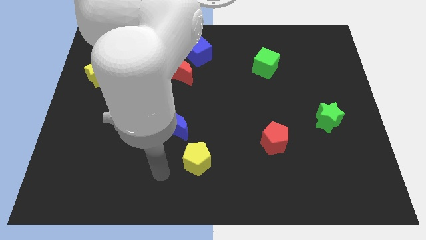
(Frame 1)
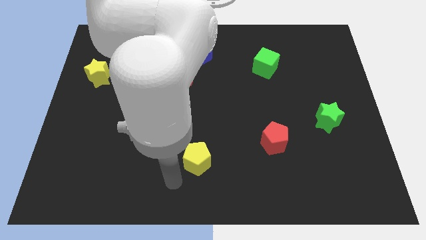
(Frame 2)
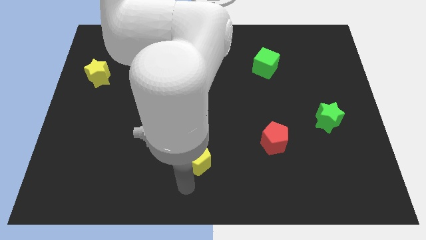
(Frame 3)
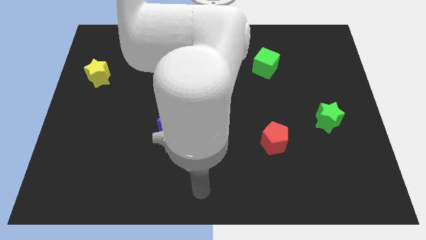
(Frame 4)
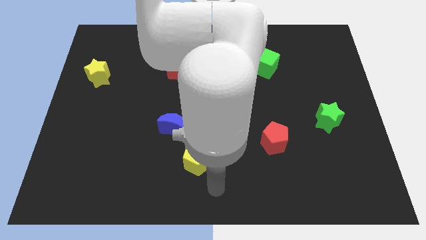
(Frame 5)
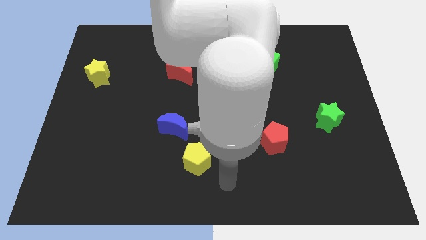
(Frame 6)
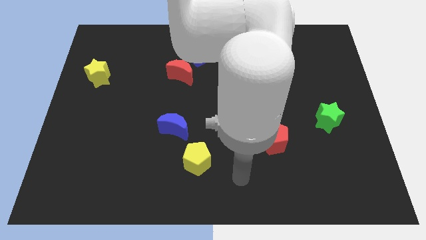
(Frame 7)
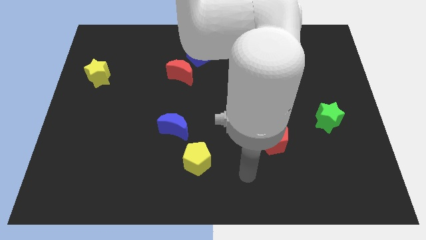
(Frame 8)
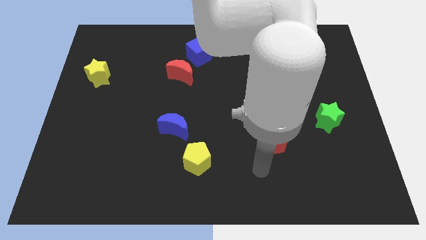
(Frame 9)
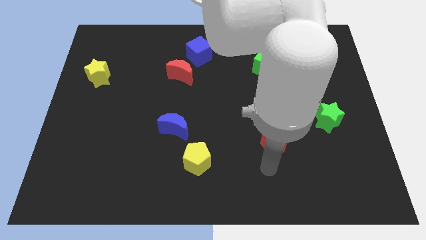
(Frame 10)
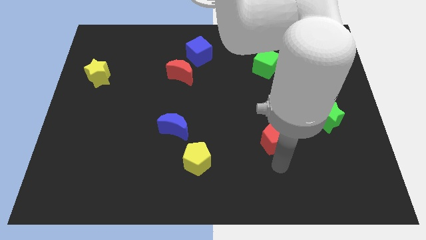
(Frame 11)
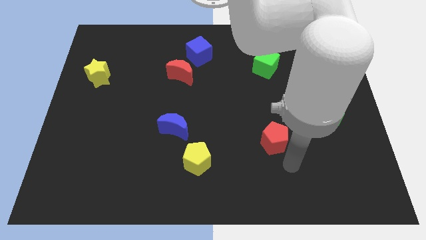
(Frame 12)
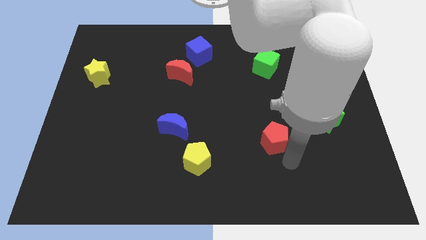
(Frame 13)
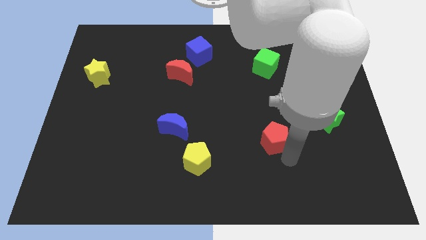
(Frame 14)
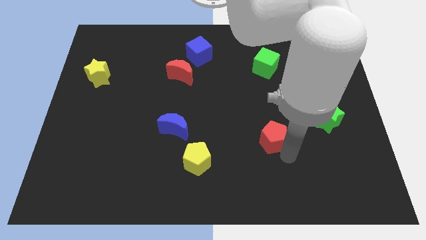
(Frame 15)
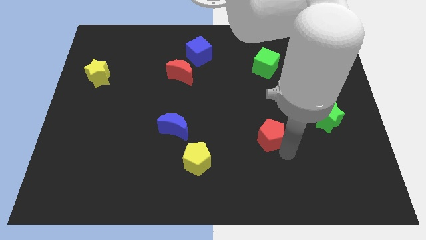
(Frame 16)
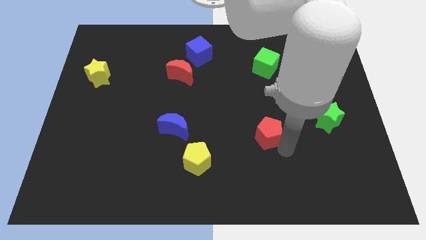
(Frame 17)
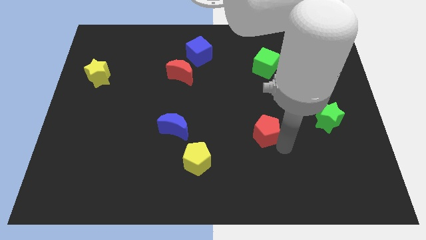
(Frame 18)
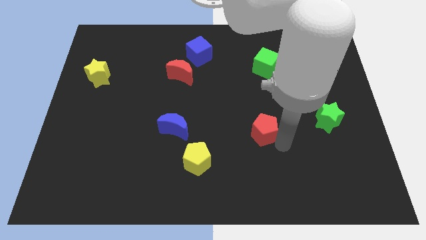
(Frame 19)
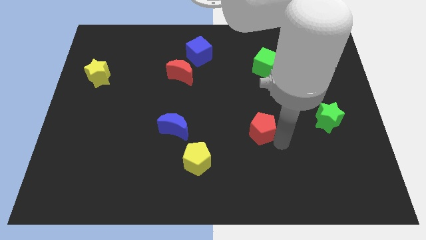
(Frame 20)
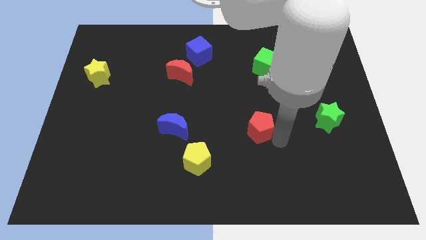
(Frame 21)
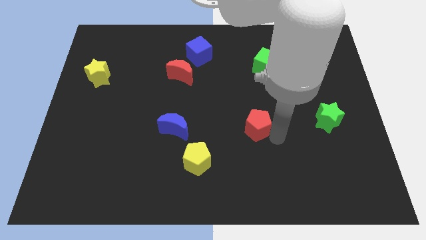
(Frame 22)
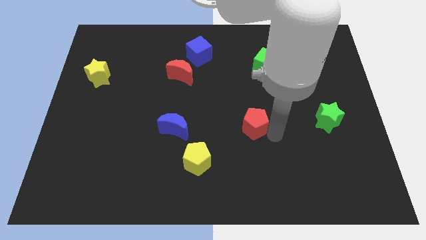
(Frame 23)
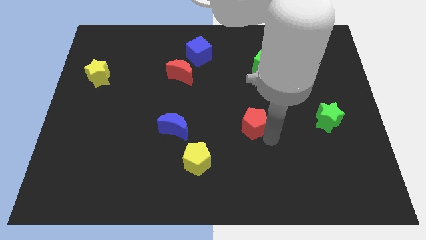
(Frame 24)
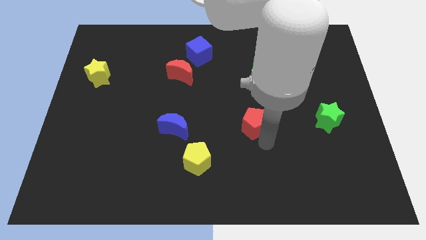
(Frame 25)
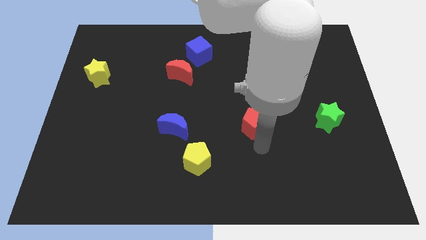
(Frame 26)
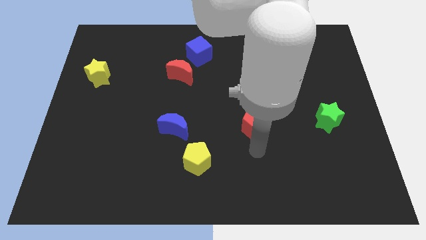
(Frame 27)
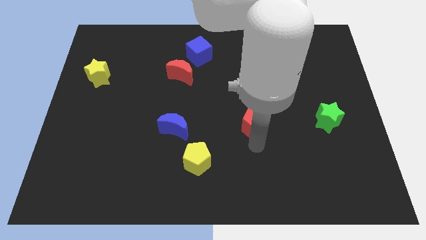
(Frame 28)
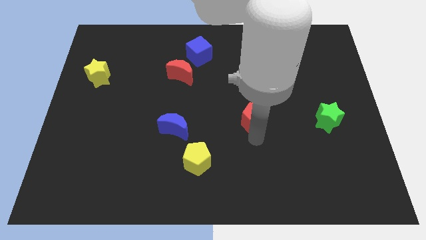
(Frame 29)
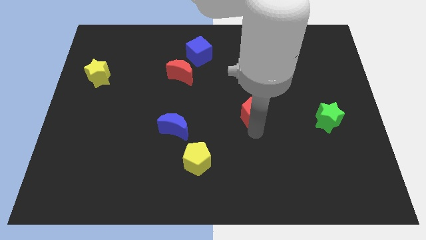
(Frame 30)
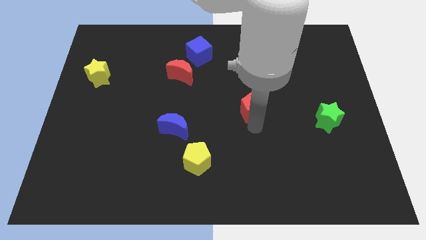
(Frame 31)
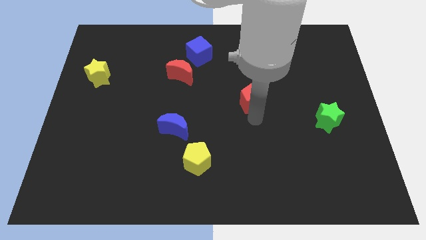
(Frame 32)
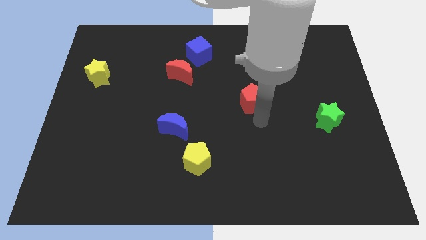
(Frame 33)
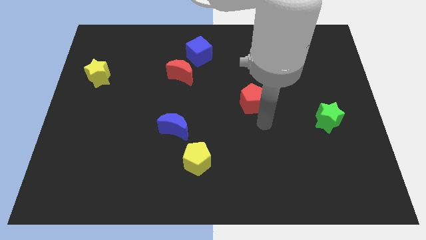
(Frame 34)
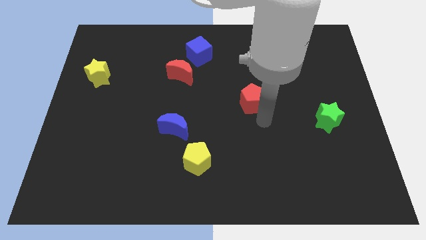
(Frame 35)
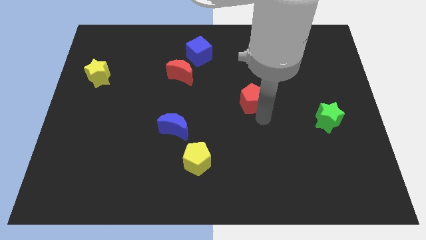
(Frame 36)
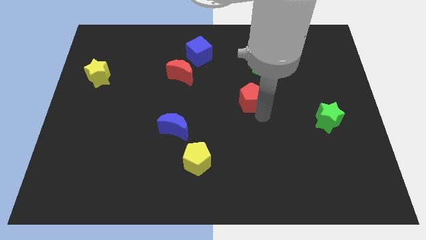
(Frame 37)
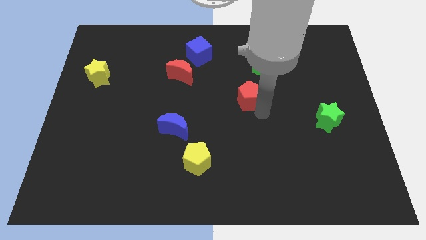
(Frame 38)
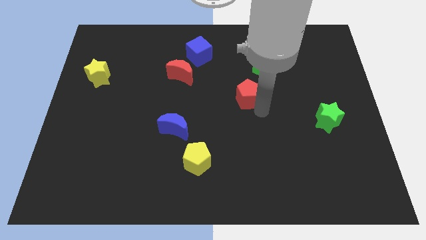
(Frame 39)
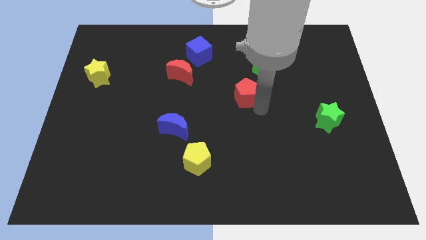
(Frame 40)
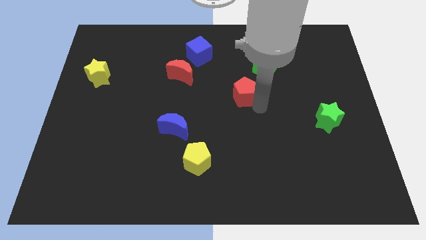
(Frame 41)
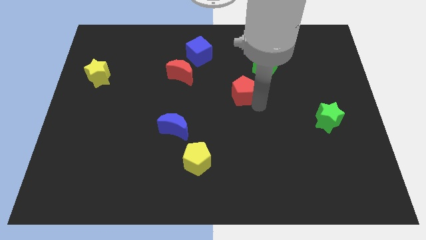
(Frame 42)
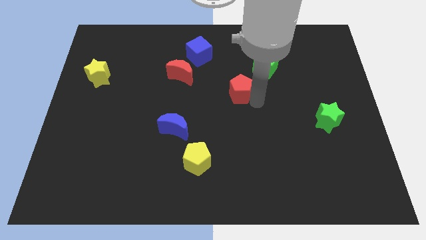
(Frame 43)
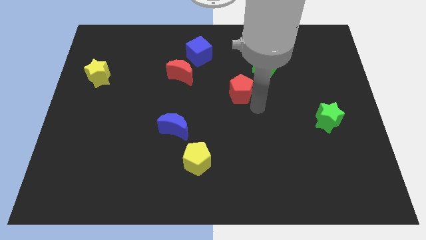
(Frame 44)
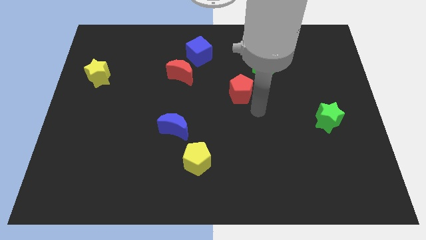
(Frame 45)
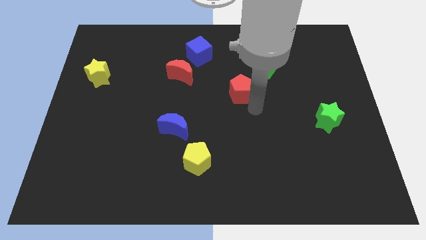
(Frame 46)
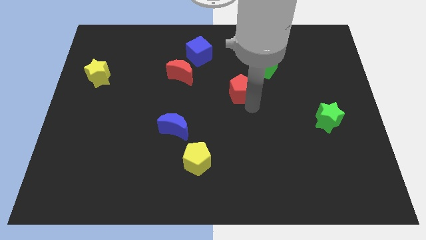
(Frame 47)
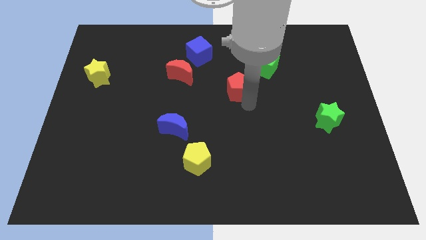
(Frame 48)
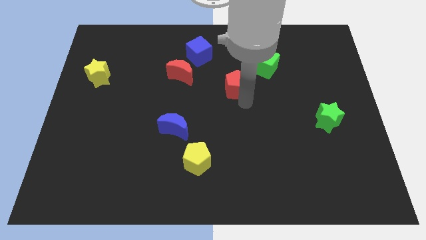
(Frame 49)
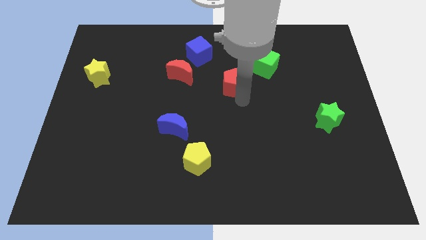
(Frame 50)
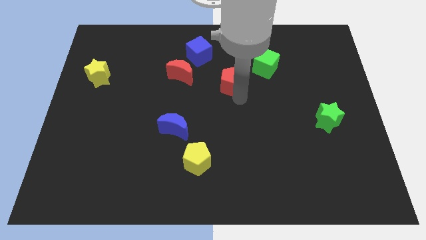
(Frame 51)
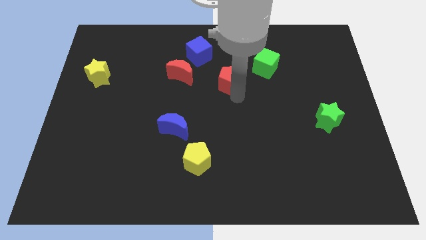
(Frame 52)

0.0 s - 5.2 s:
push the red pentagon to the bottom right of the blue cube

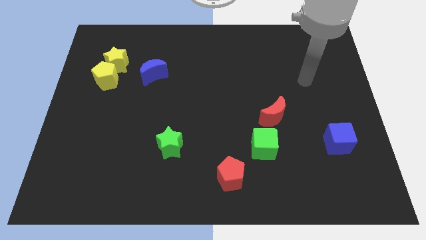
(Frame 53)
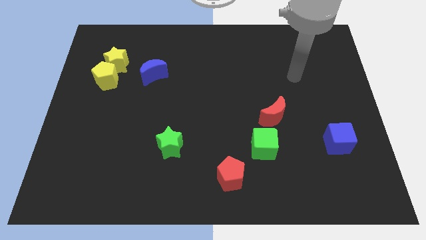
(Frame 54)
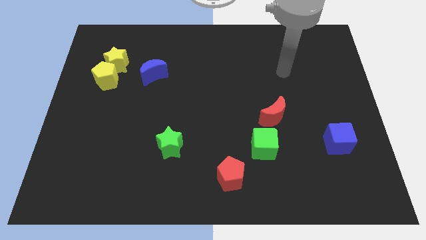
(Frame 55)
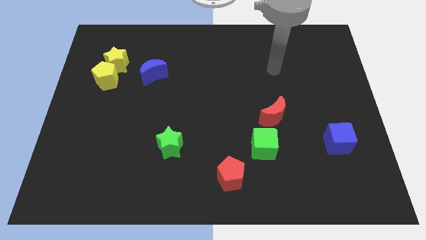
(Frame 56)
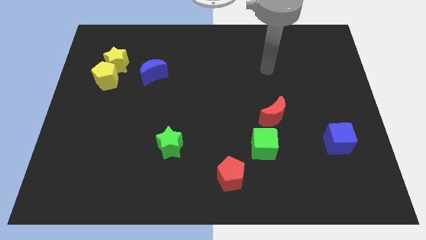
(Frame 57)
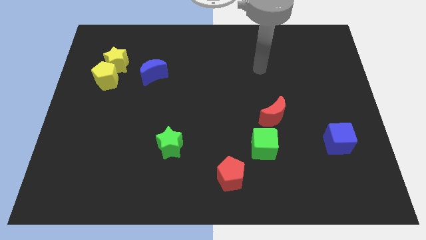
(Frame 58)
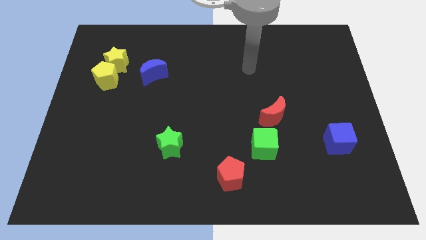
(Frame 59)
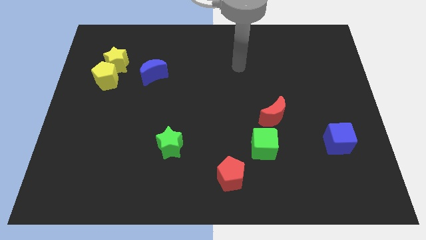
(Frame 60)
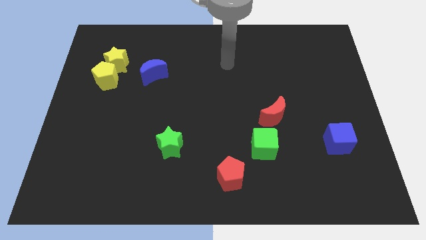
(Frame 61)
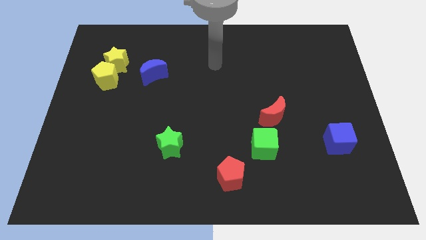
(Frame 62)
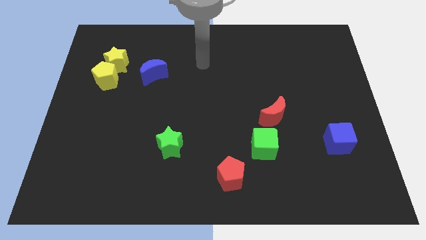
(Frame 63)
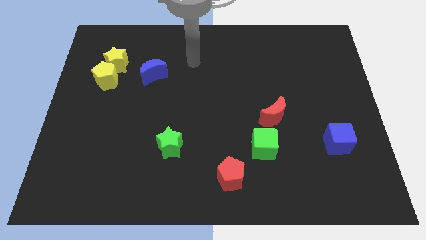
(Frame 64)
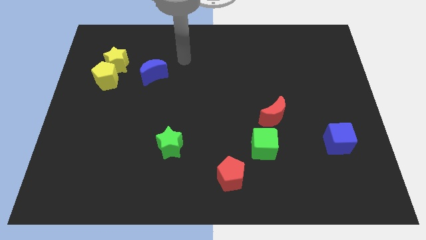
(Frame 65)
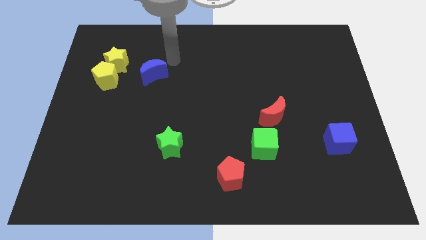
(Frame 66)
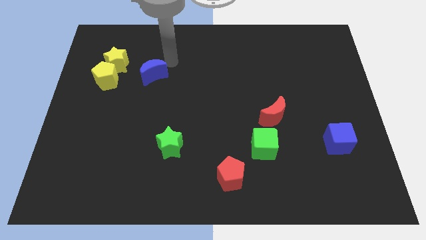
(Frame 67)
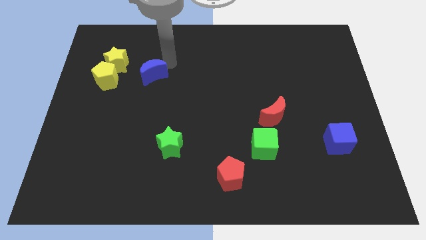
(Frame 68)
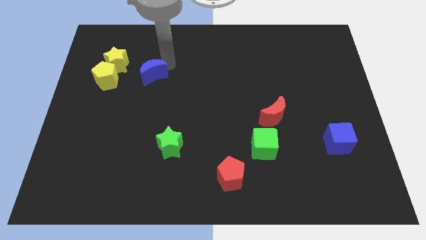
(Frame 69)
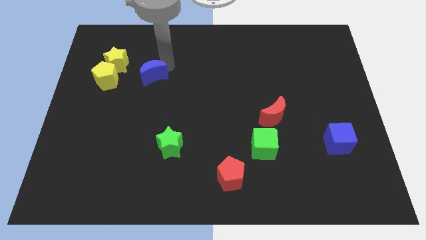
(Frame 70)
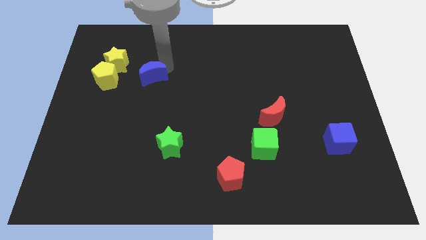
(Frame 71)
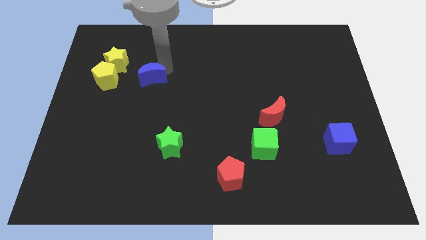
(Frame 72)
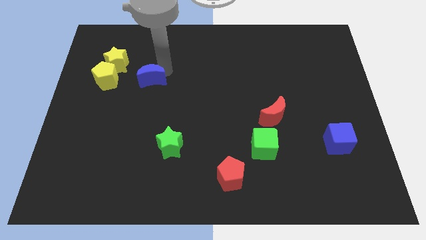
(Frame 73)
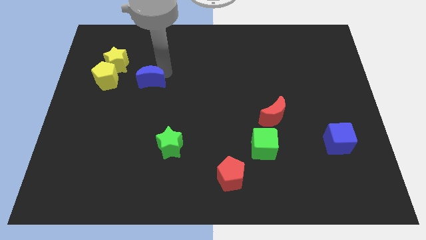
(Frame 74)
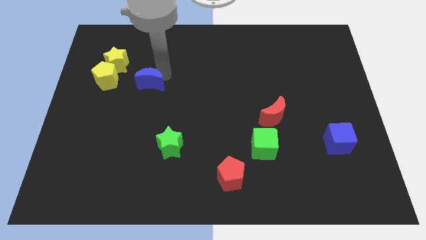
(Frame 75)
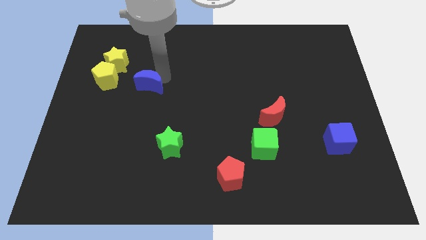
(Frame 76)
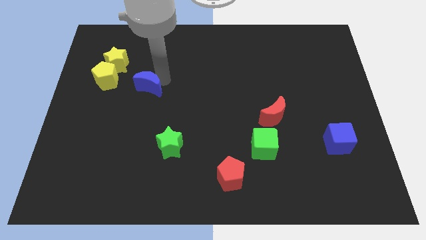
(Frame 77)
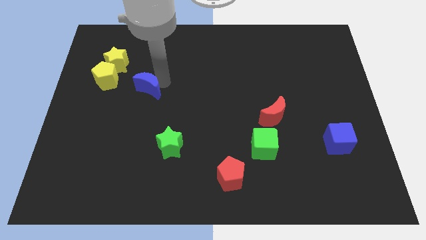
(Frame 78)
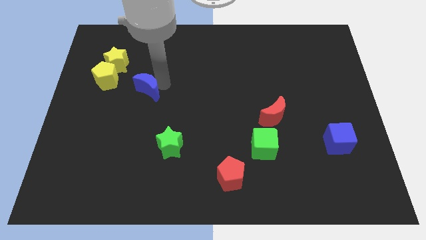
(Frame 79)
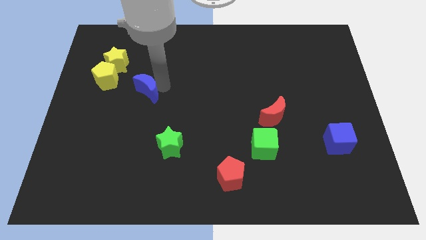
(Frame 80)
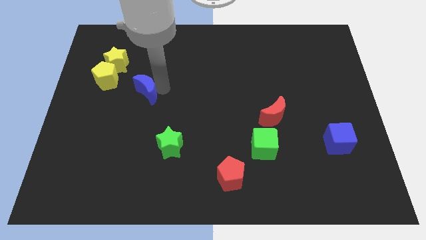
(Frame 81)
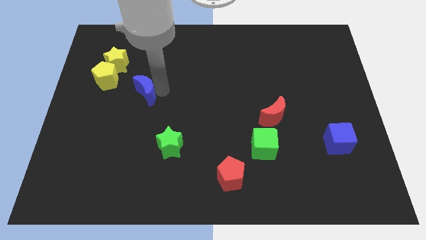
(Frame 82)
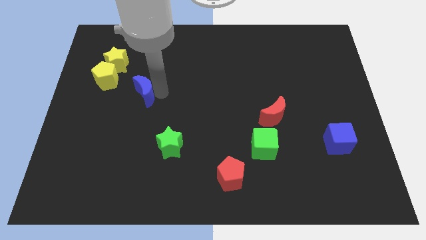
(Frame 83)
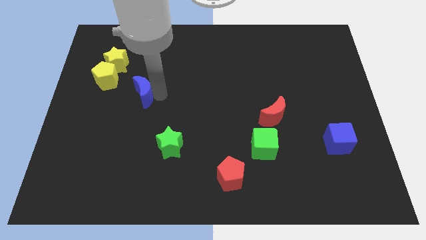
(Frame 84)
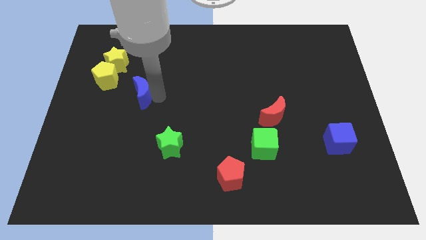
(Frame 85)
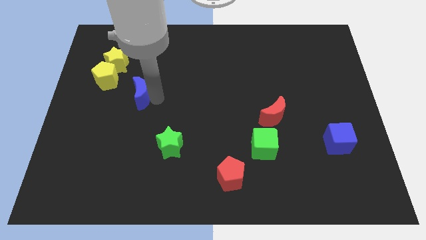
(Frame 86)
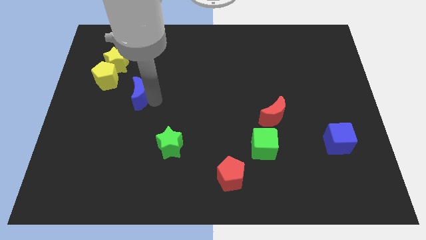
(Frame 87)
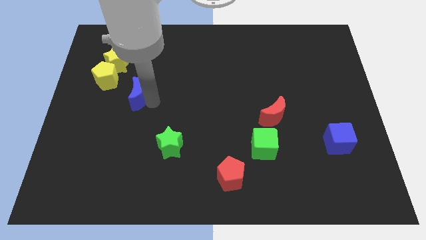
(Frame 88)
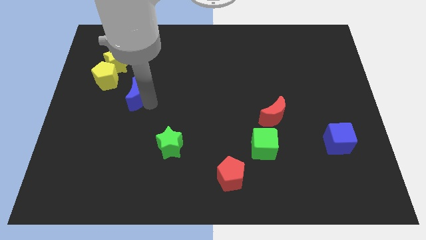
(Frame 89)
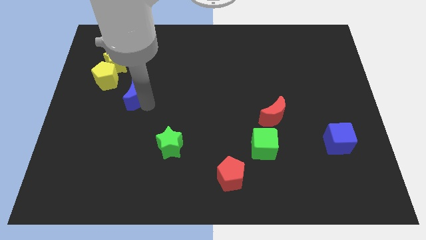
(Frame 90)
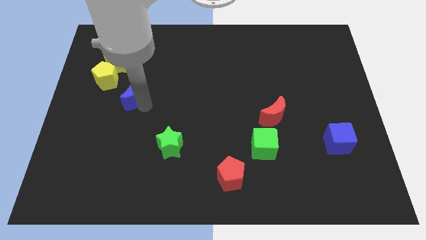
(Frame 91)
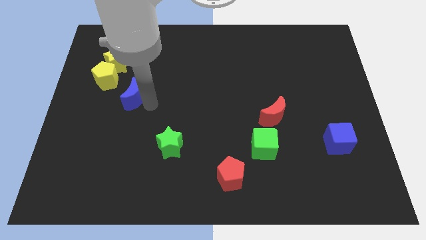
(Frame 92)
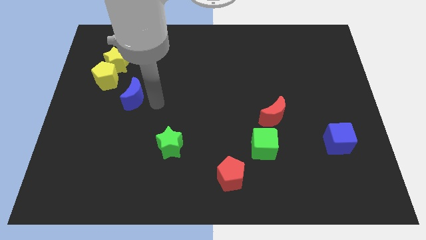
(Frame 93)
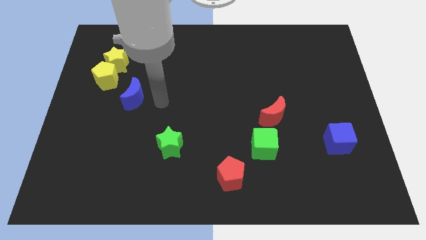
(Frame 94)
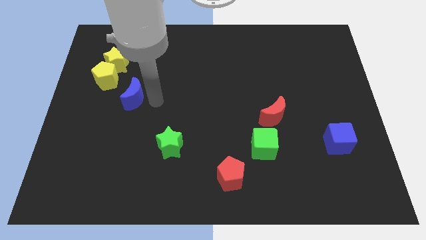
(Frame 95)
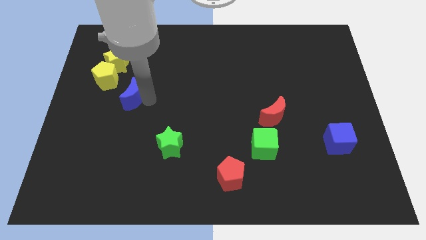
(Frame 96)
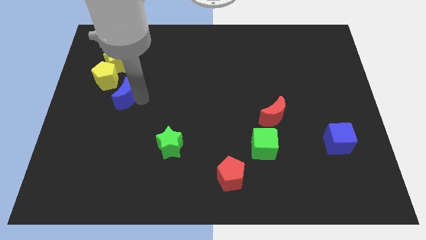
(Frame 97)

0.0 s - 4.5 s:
slide the blue moon to the bottom of the yellow star
